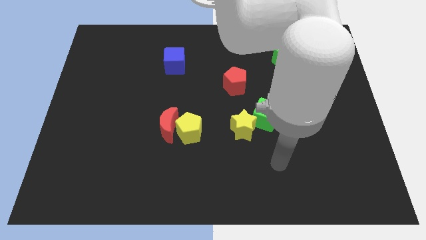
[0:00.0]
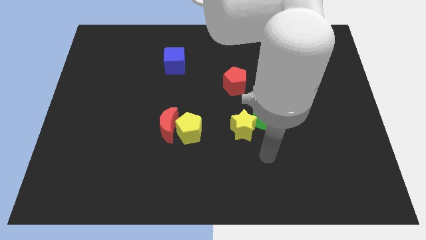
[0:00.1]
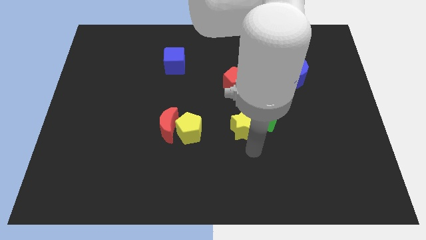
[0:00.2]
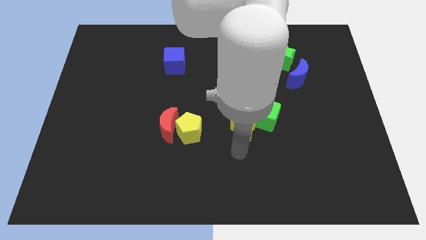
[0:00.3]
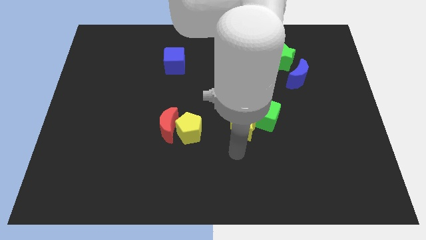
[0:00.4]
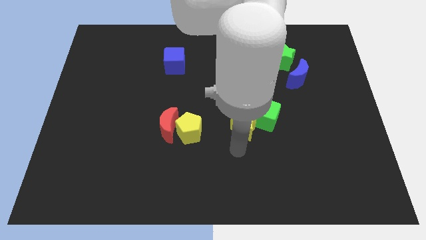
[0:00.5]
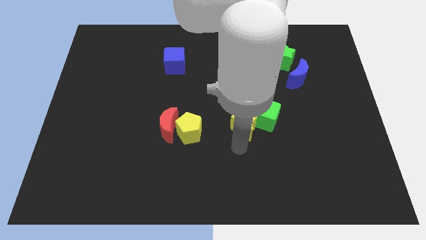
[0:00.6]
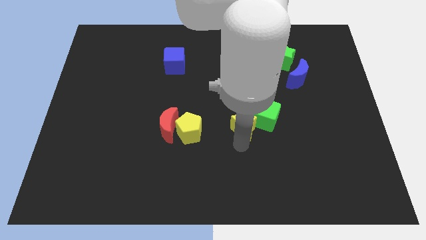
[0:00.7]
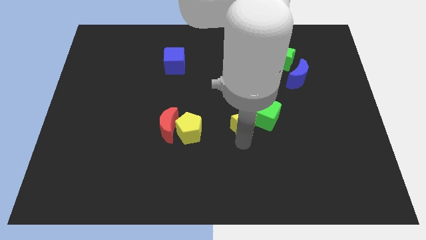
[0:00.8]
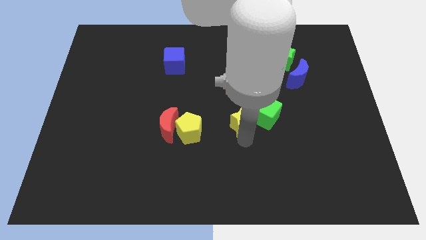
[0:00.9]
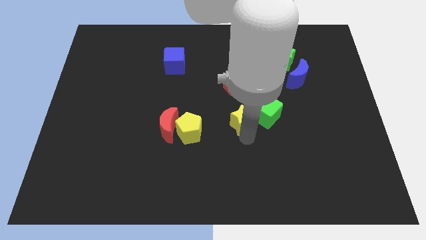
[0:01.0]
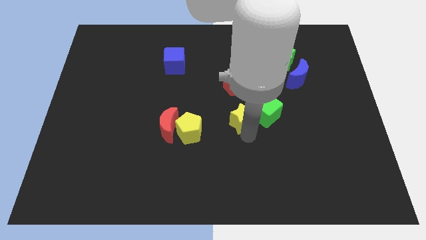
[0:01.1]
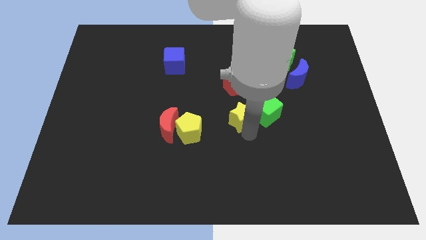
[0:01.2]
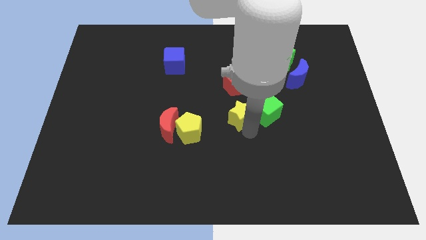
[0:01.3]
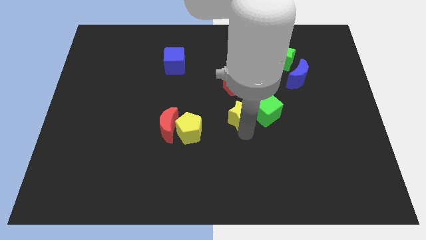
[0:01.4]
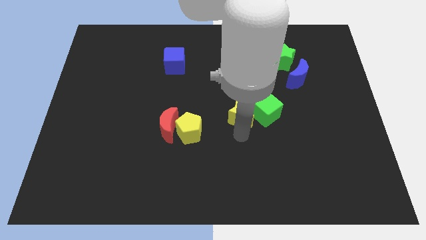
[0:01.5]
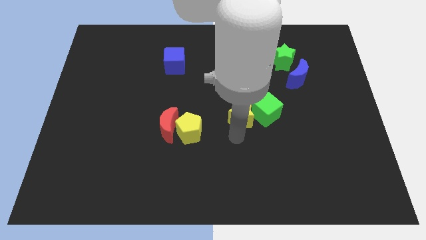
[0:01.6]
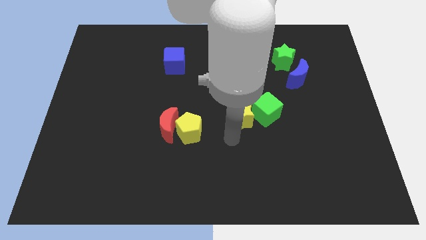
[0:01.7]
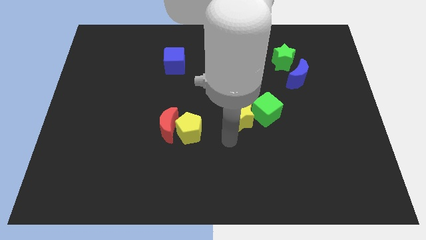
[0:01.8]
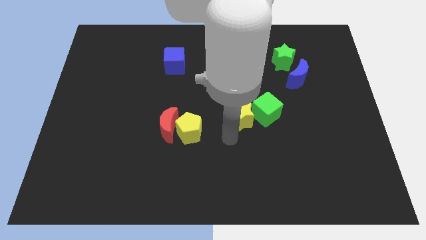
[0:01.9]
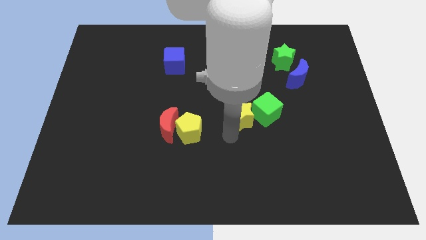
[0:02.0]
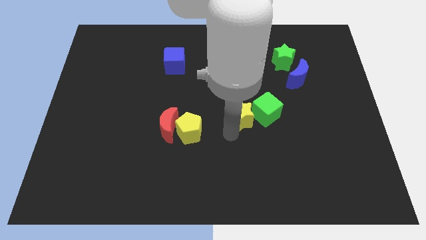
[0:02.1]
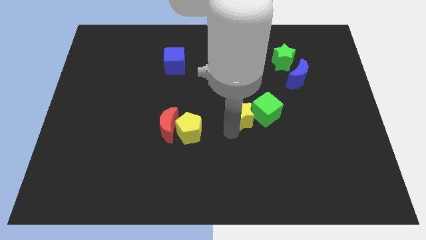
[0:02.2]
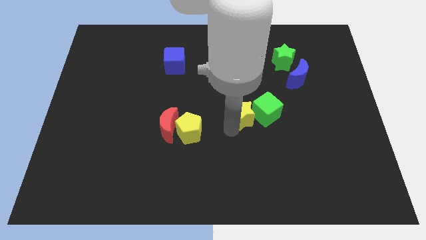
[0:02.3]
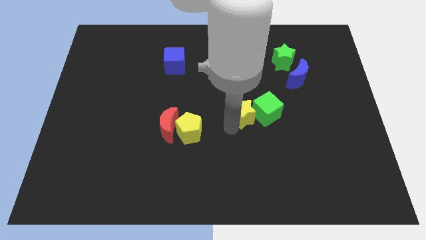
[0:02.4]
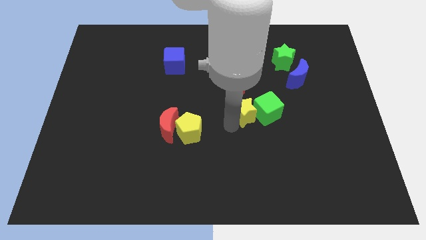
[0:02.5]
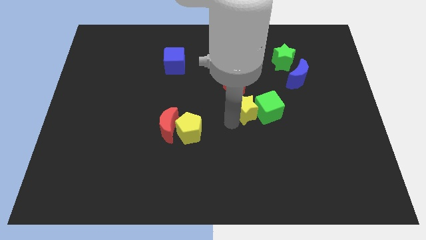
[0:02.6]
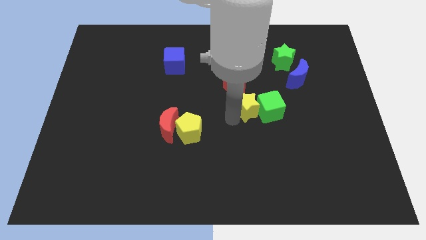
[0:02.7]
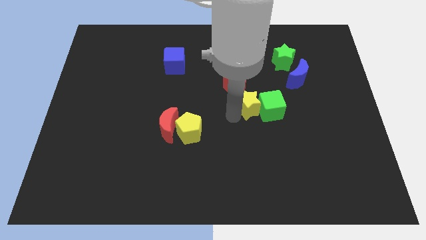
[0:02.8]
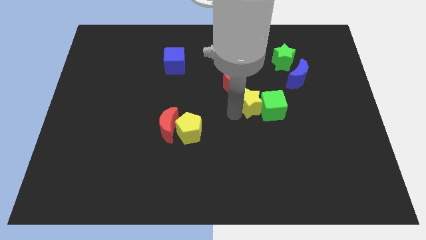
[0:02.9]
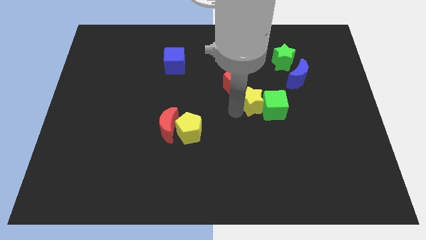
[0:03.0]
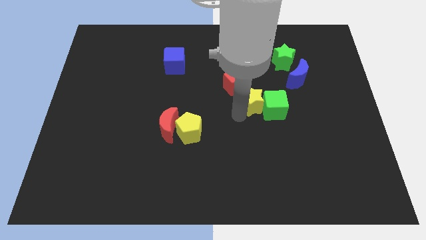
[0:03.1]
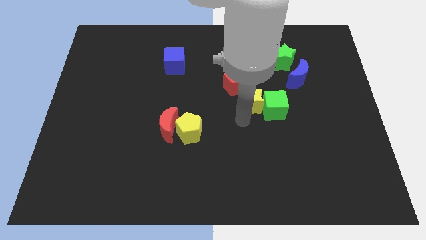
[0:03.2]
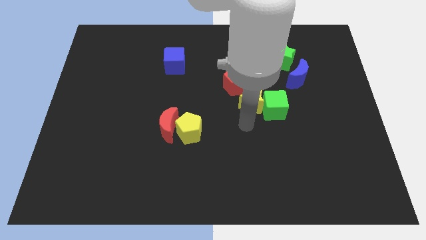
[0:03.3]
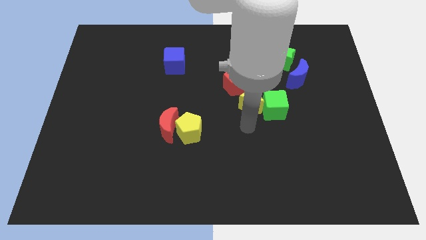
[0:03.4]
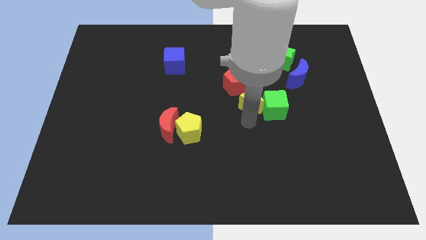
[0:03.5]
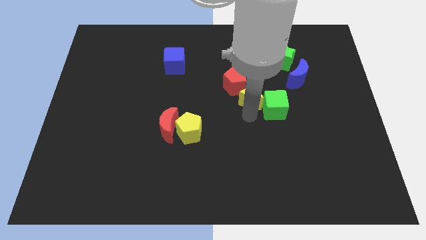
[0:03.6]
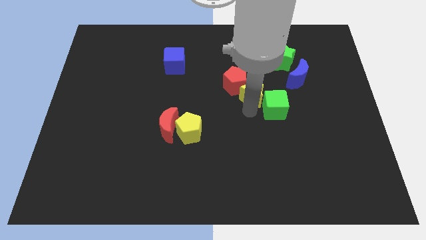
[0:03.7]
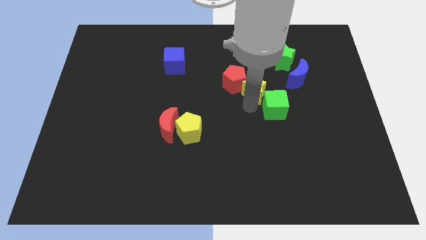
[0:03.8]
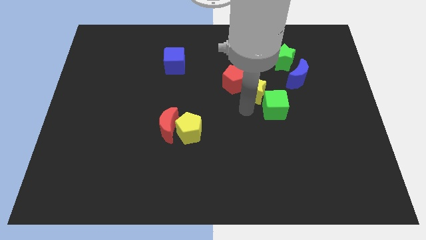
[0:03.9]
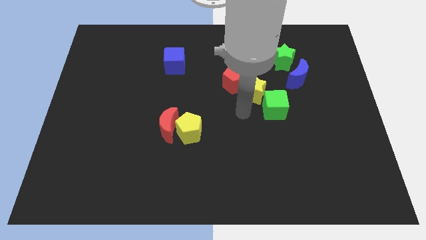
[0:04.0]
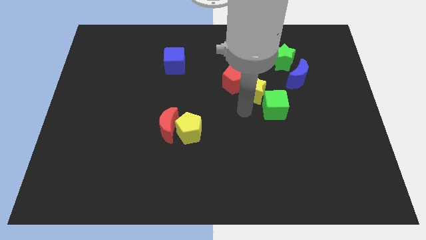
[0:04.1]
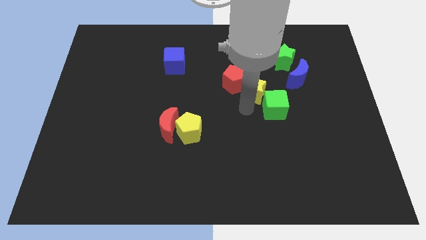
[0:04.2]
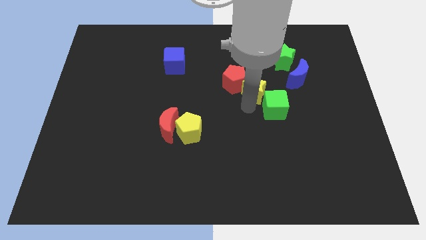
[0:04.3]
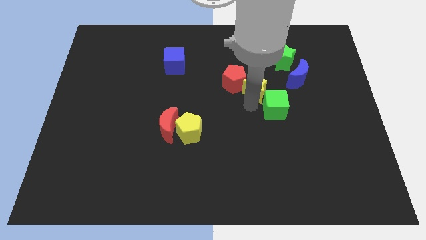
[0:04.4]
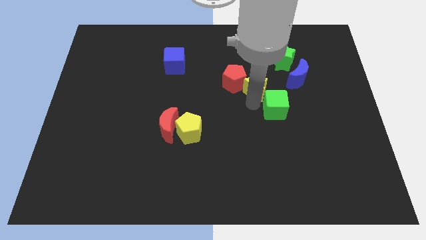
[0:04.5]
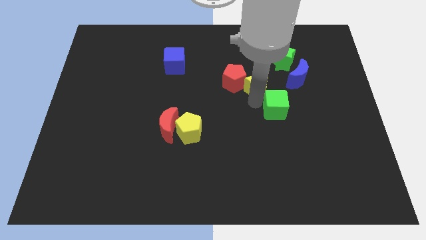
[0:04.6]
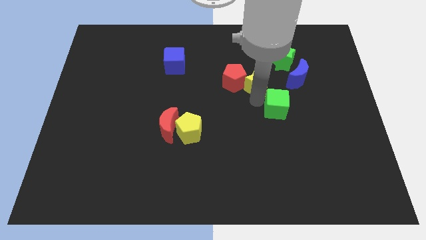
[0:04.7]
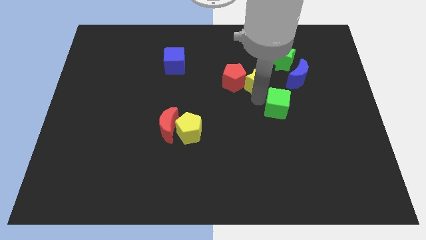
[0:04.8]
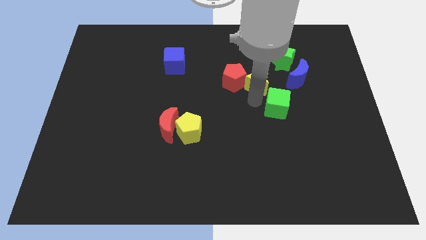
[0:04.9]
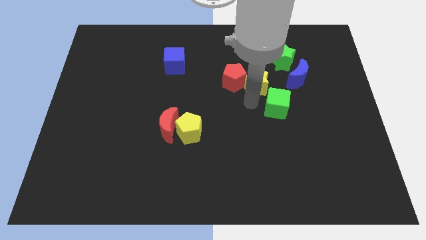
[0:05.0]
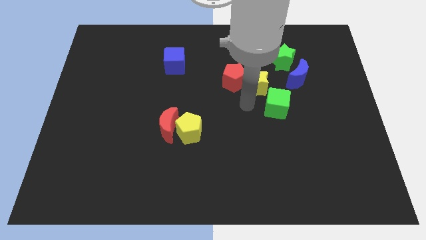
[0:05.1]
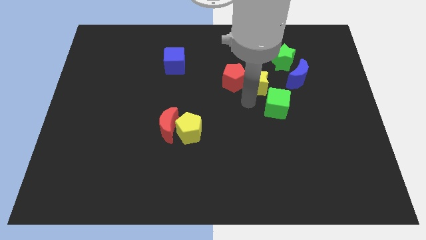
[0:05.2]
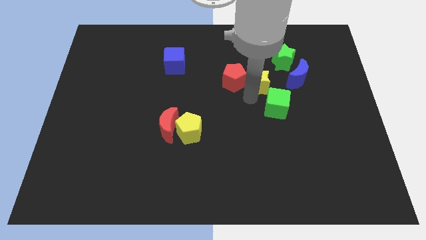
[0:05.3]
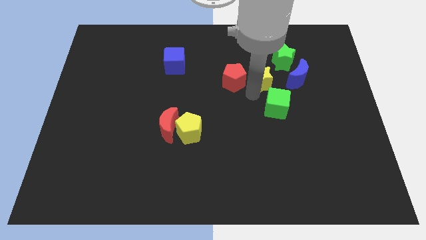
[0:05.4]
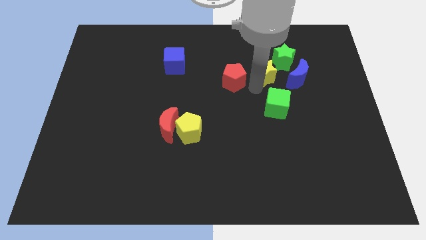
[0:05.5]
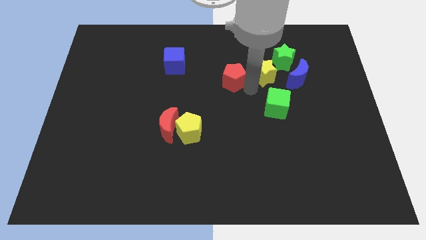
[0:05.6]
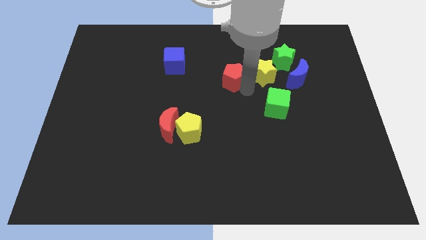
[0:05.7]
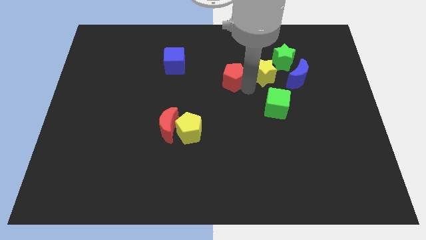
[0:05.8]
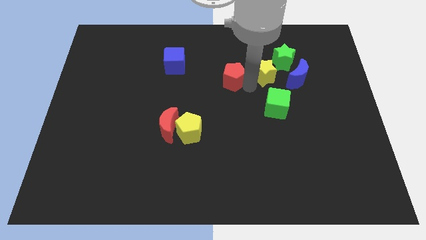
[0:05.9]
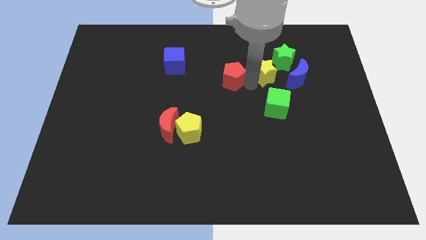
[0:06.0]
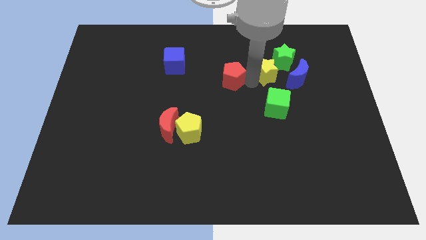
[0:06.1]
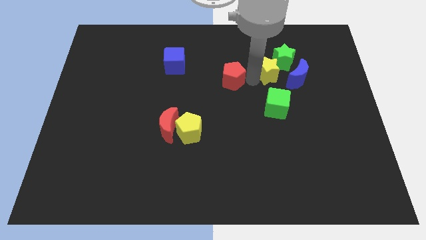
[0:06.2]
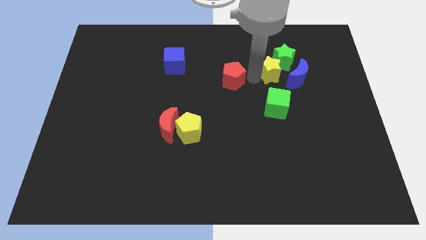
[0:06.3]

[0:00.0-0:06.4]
push the yellow star close to the green star

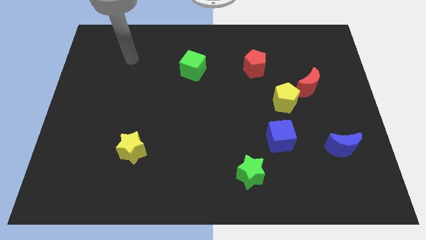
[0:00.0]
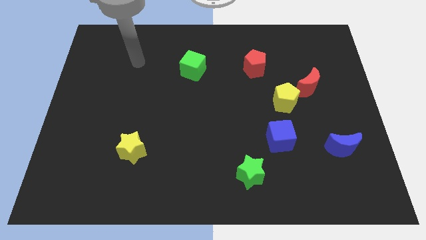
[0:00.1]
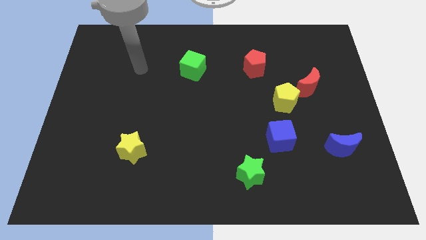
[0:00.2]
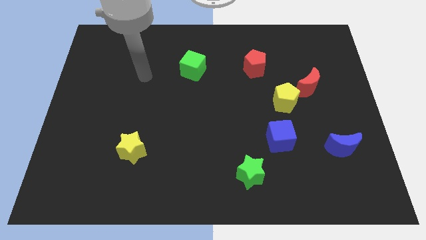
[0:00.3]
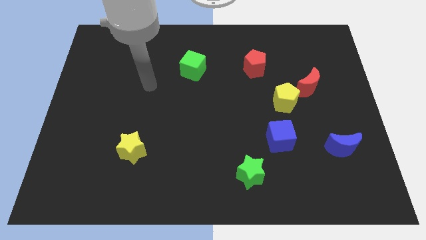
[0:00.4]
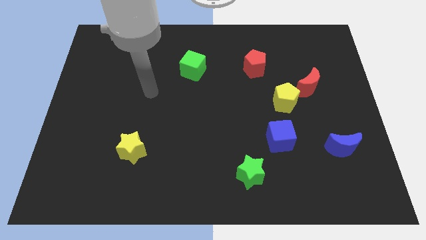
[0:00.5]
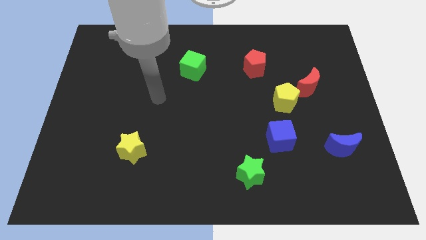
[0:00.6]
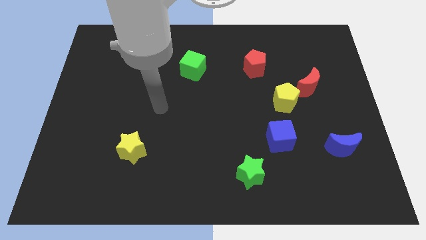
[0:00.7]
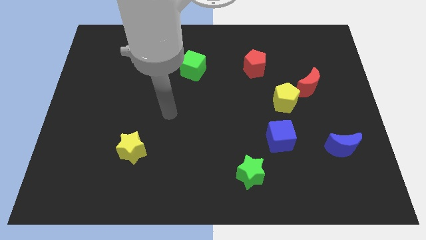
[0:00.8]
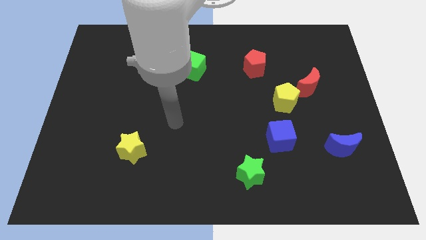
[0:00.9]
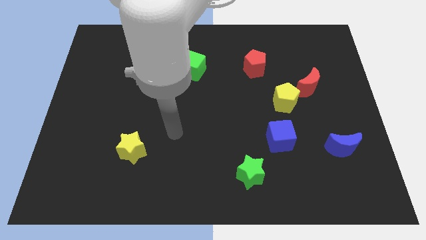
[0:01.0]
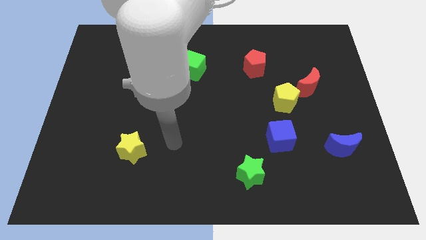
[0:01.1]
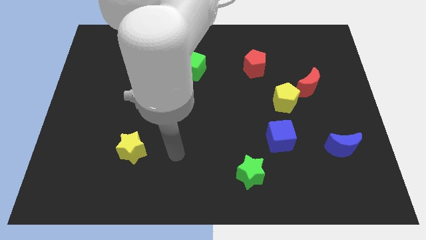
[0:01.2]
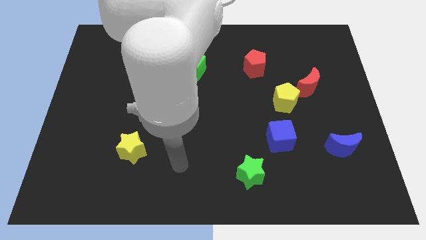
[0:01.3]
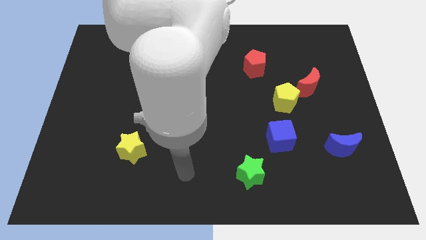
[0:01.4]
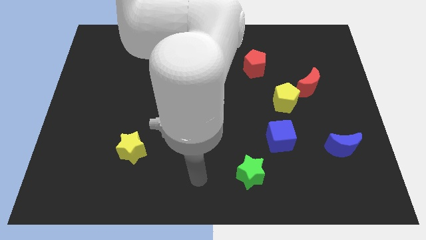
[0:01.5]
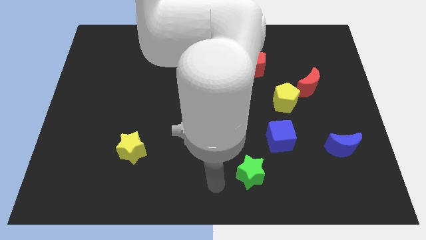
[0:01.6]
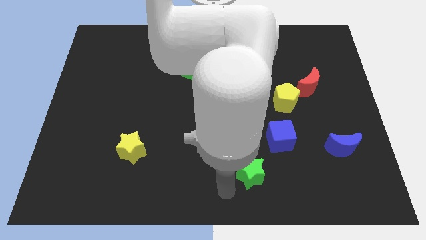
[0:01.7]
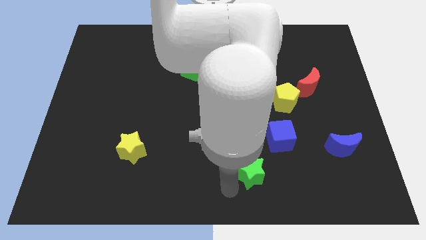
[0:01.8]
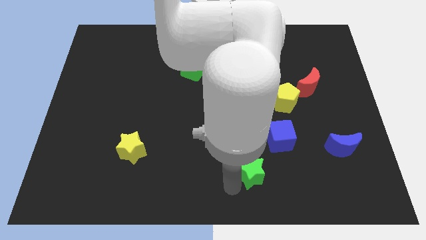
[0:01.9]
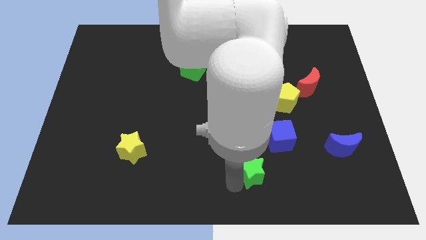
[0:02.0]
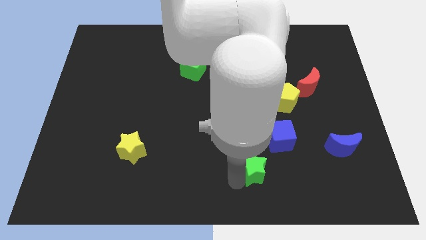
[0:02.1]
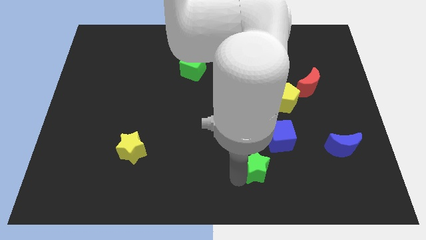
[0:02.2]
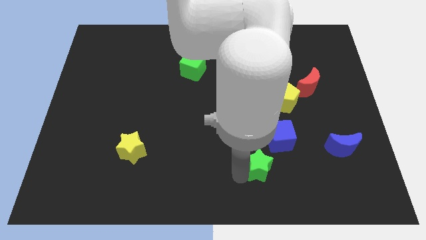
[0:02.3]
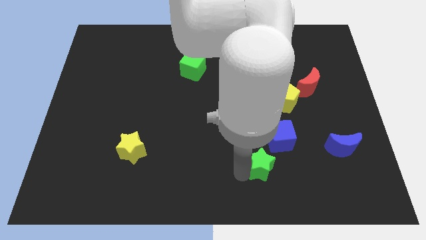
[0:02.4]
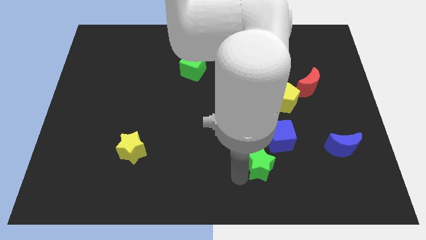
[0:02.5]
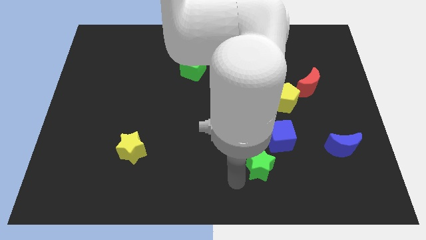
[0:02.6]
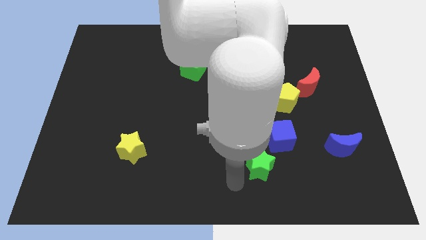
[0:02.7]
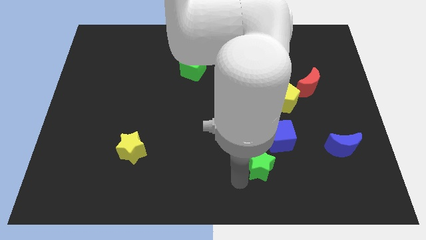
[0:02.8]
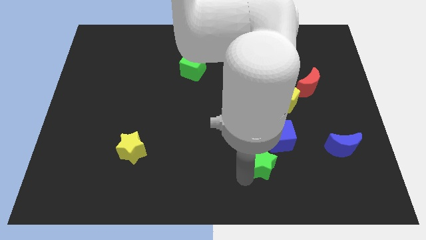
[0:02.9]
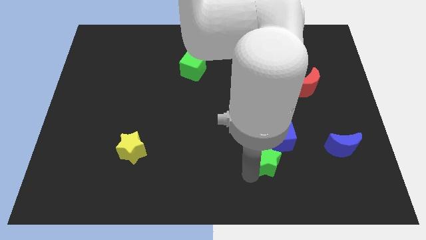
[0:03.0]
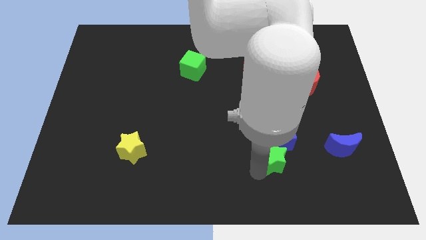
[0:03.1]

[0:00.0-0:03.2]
put the green star next to the blue cube
